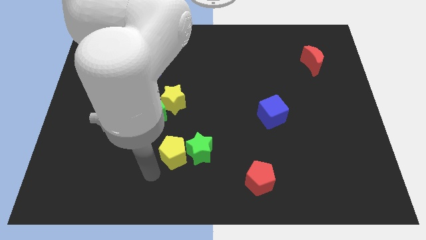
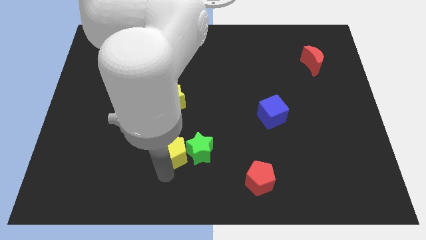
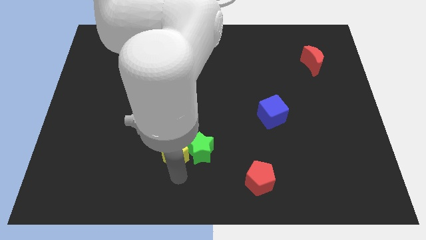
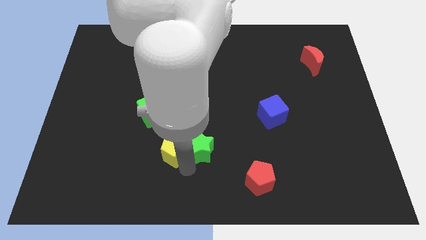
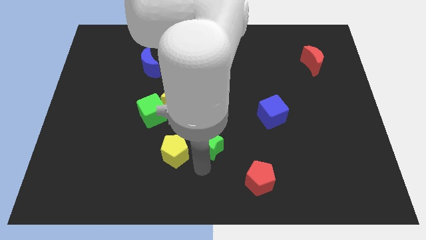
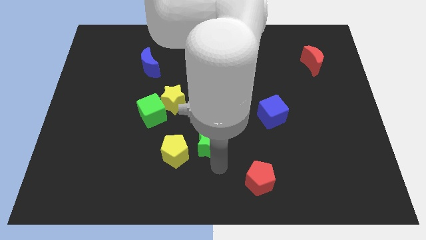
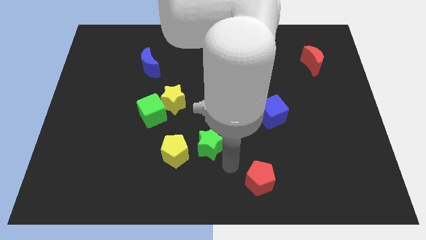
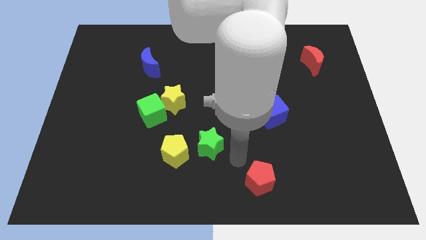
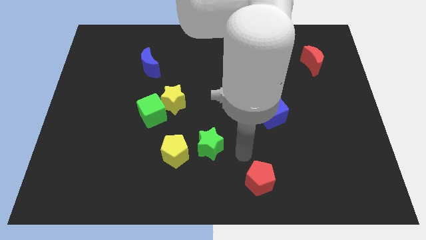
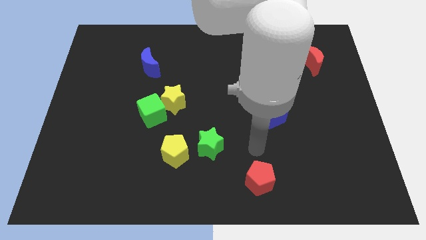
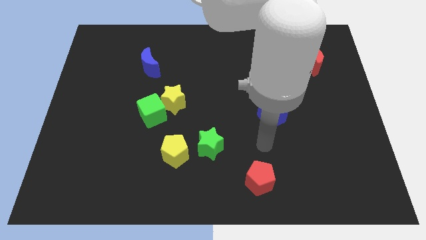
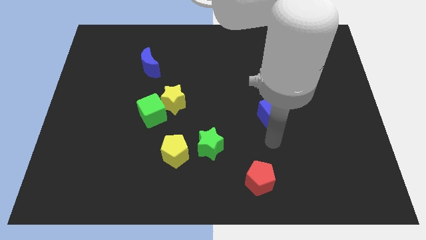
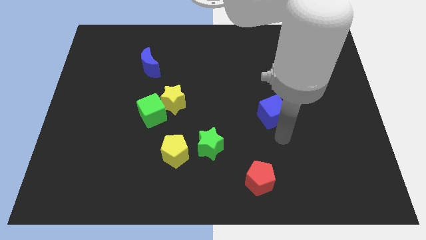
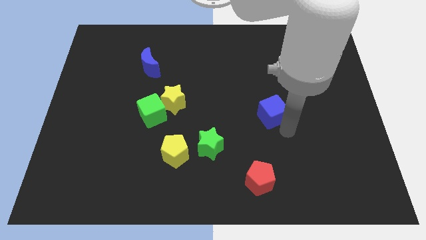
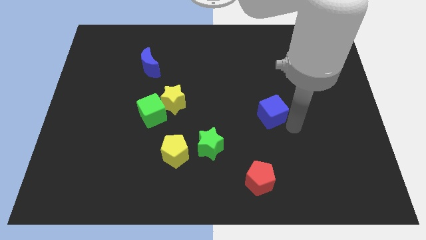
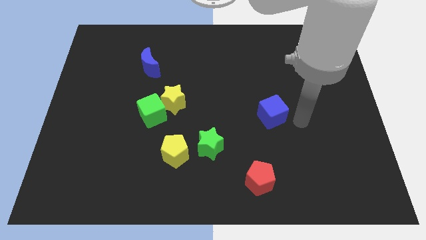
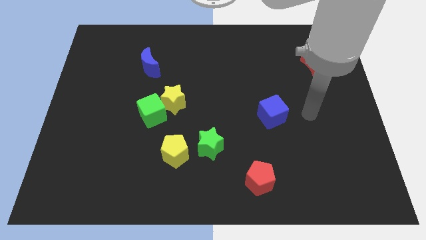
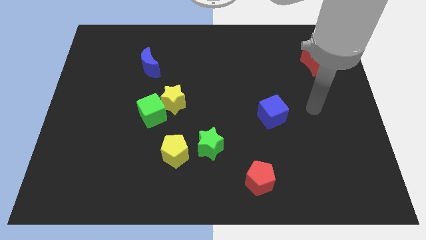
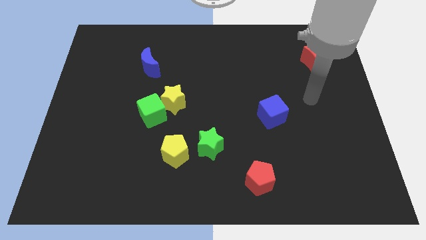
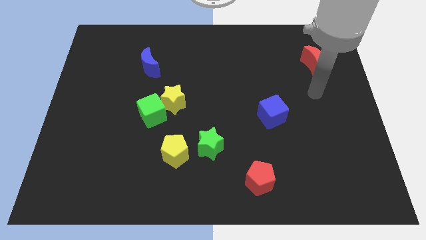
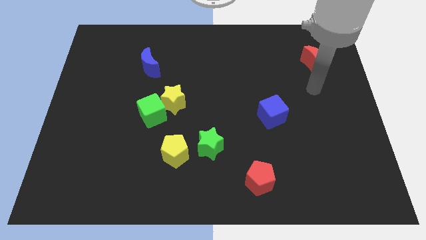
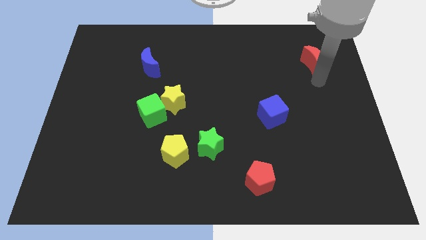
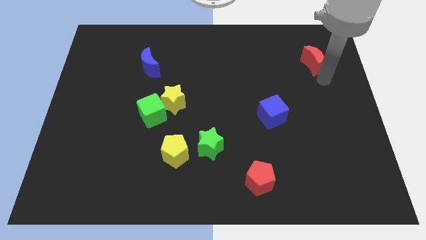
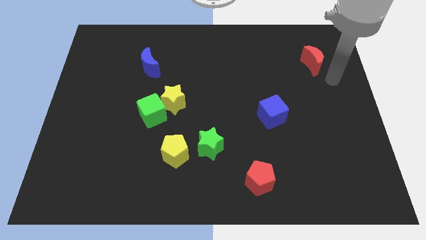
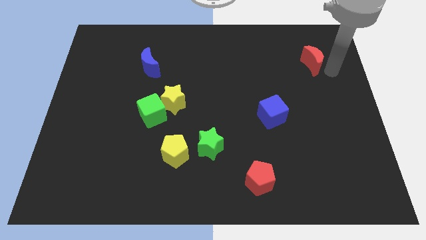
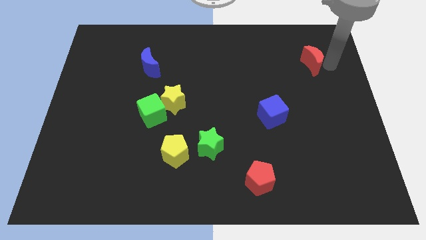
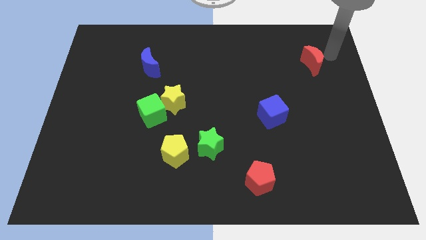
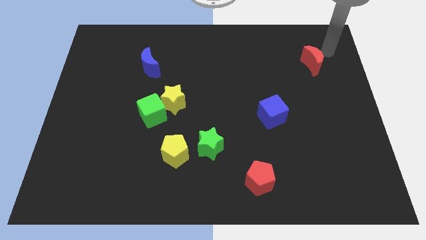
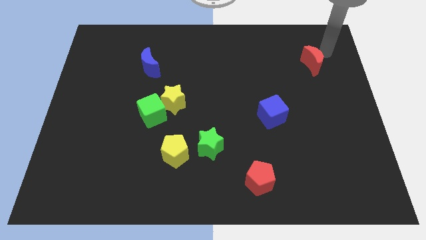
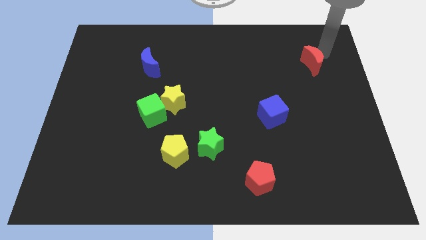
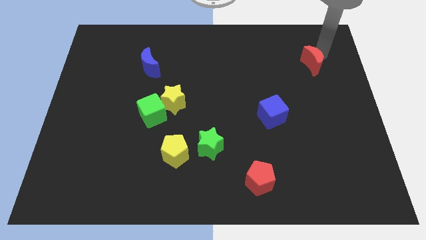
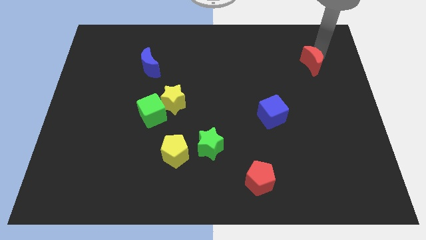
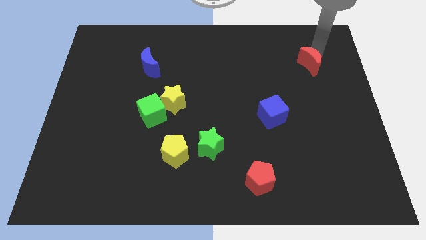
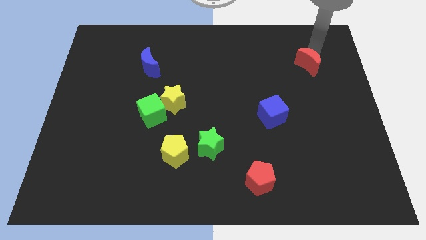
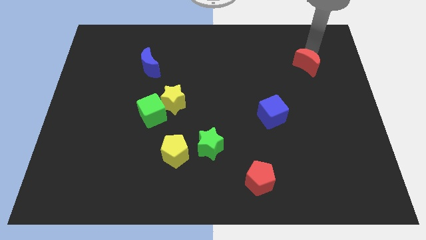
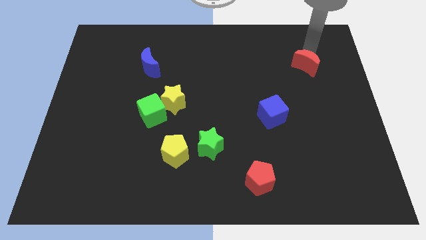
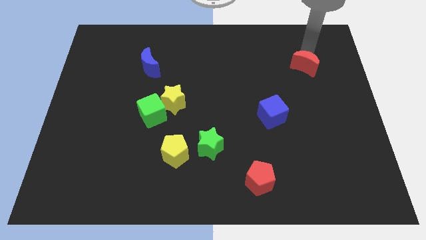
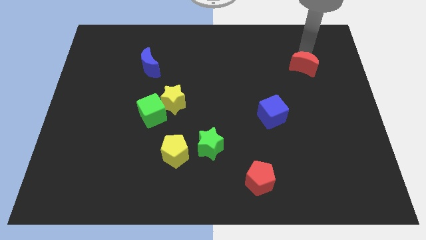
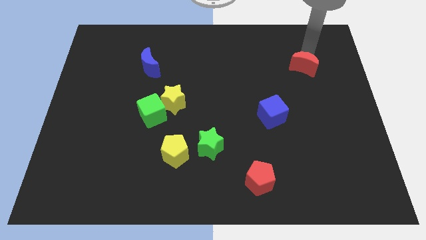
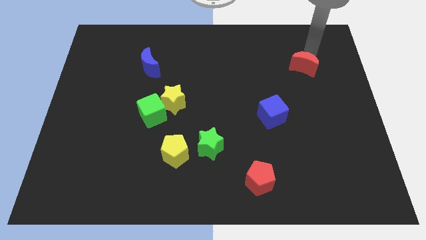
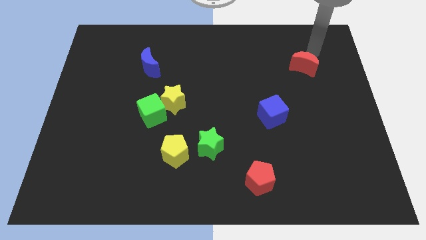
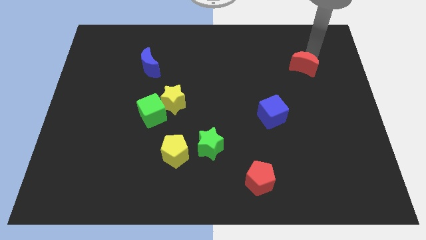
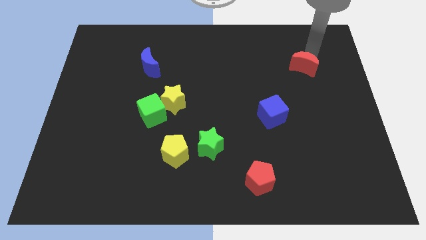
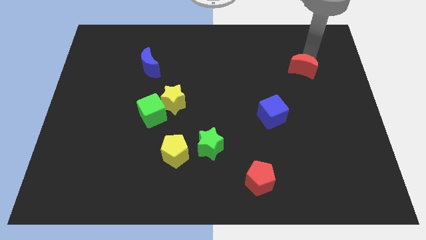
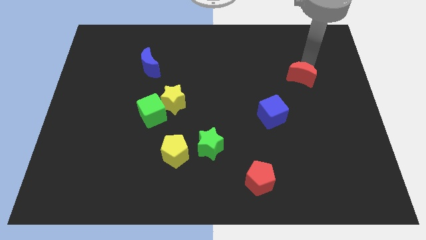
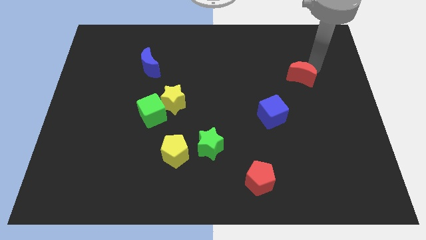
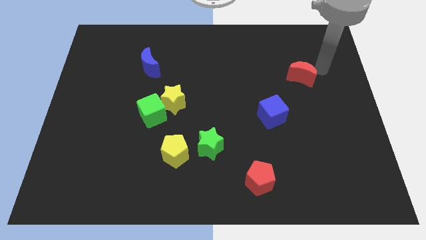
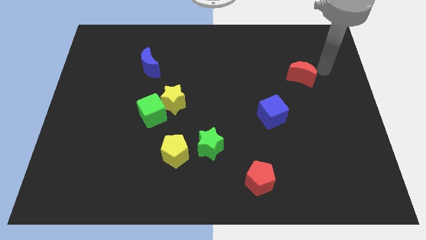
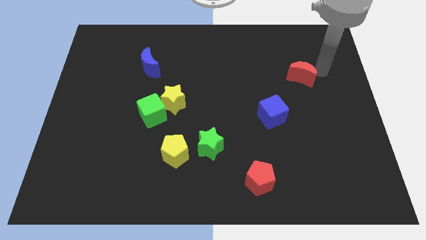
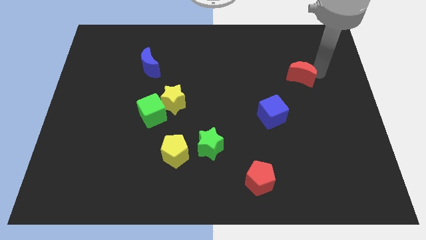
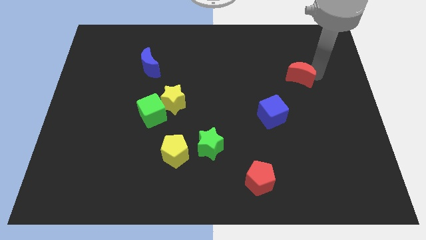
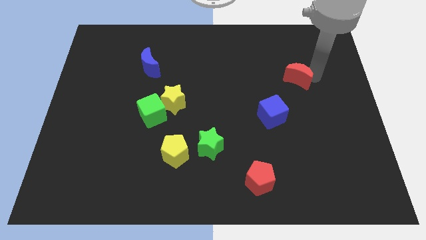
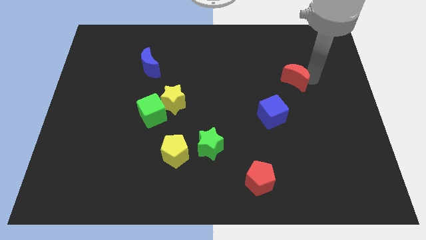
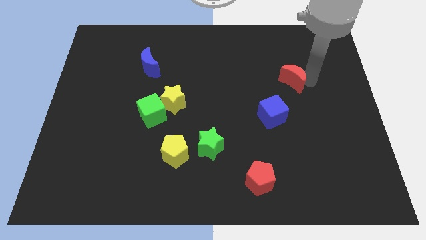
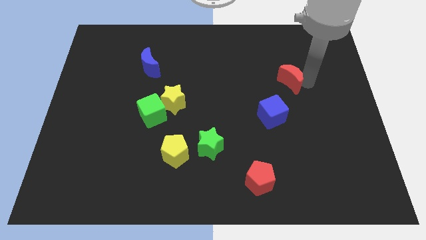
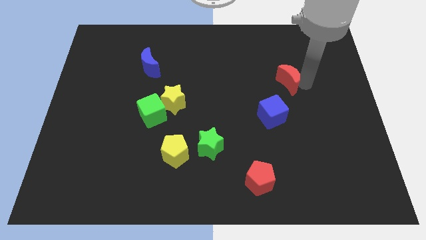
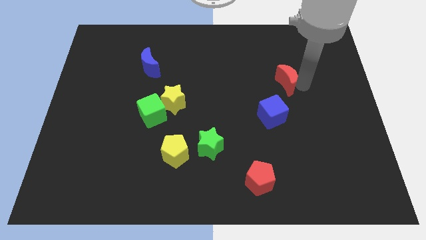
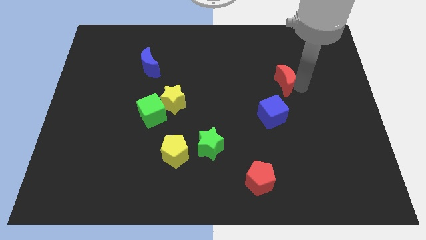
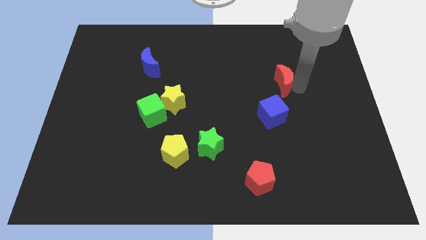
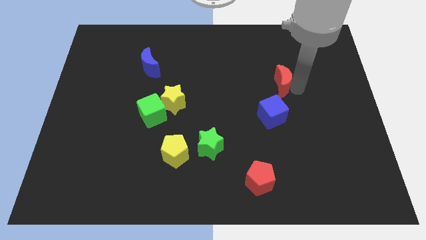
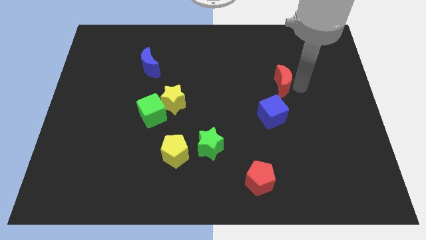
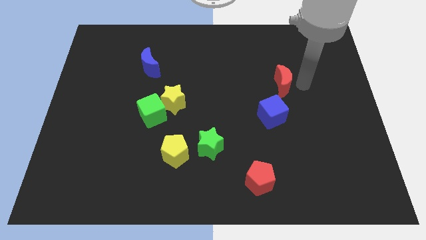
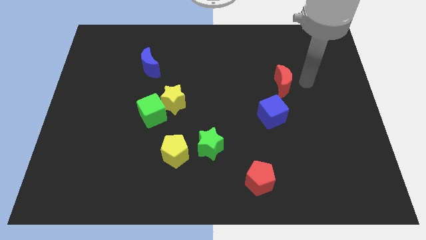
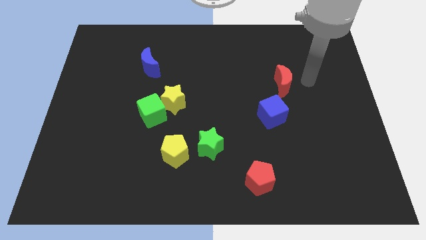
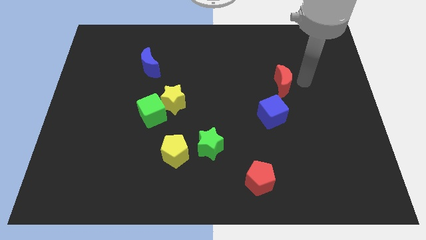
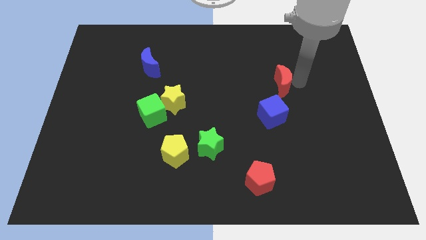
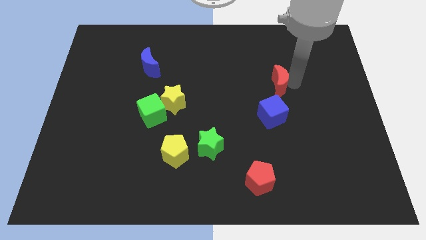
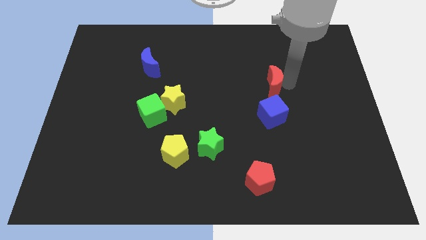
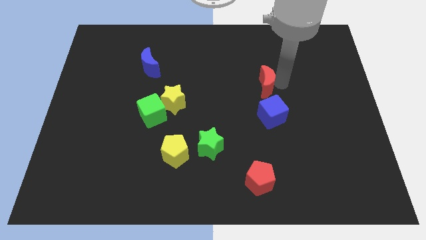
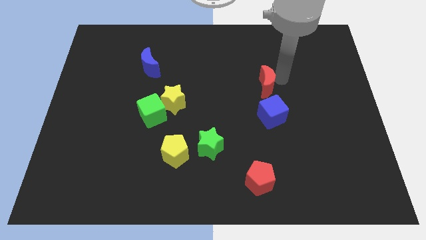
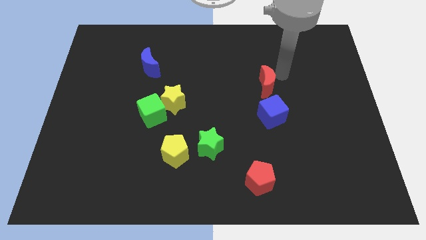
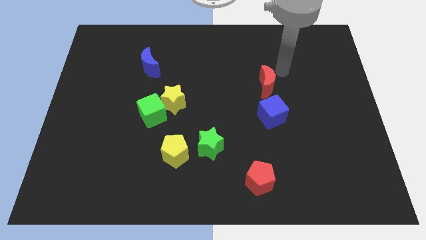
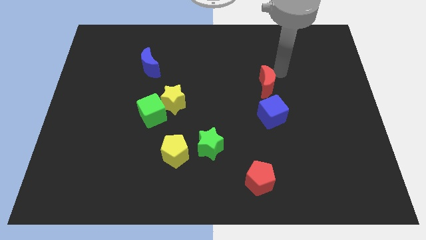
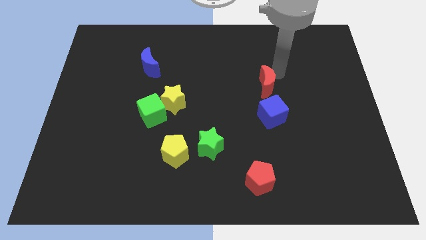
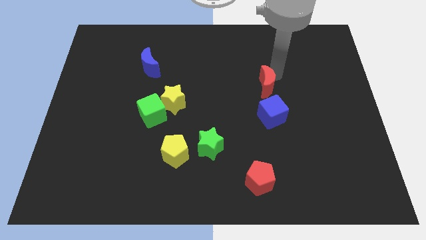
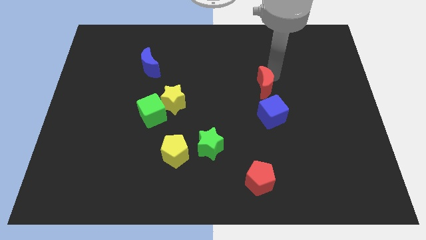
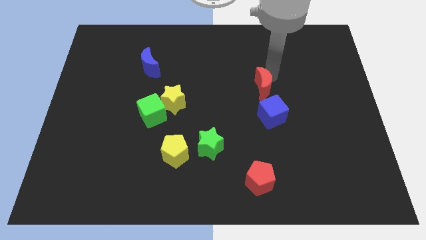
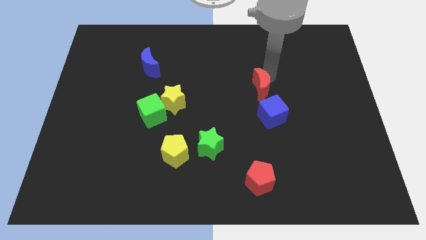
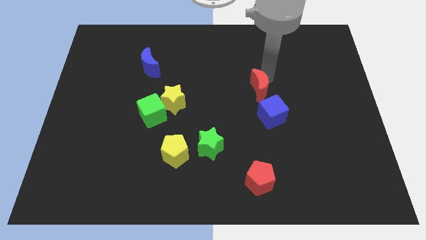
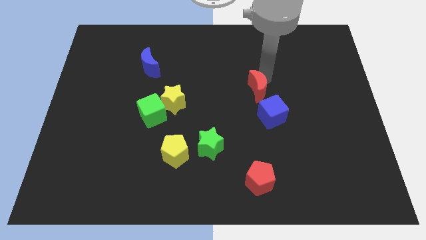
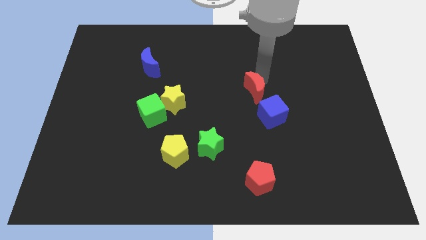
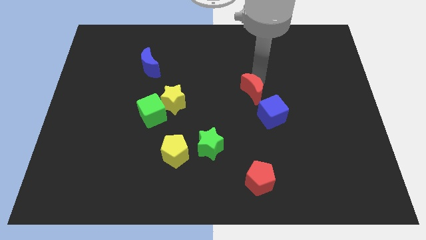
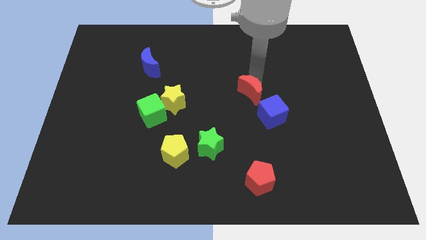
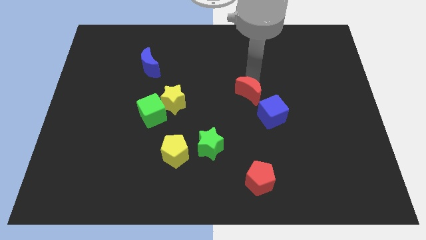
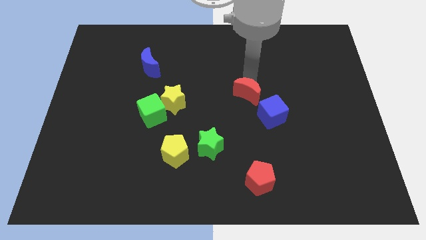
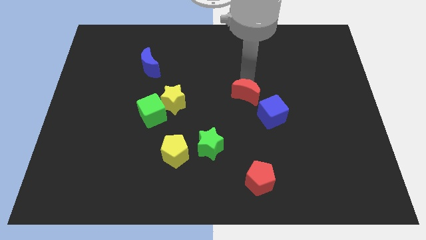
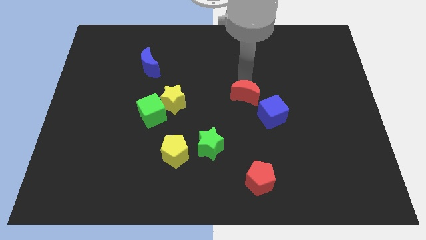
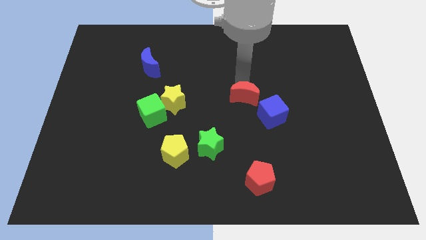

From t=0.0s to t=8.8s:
push the red moon diagonally down and to the left
